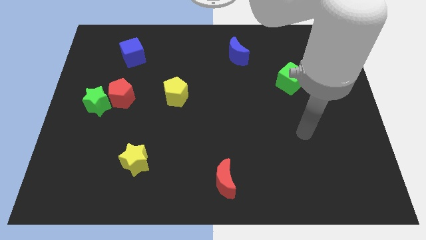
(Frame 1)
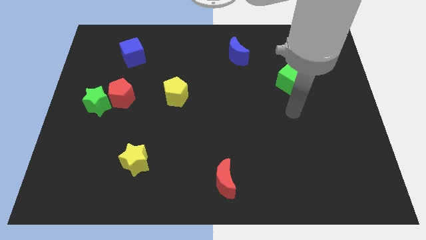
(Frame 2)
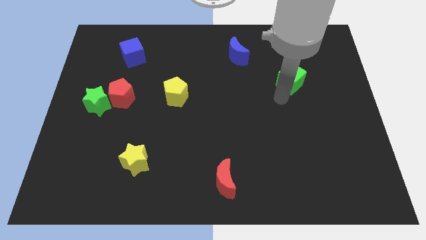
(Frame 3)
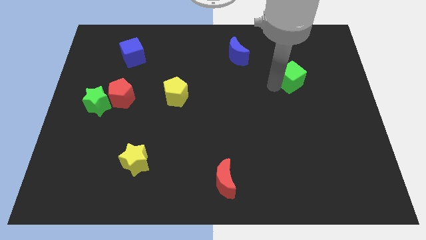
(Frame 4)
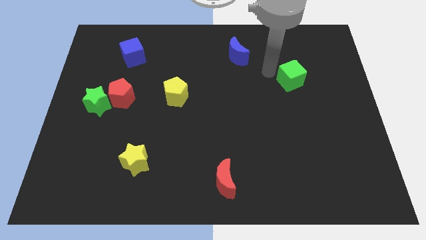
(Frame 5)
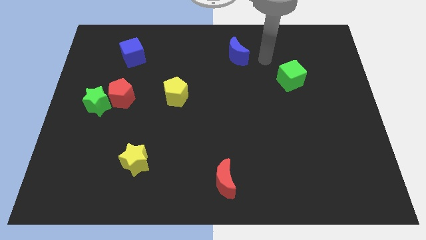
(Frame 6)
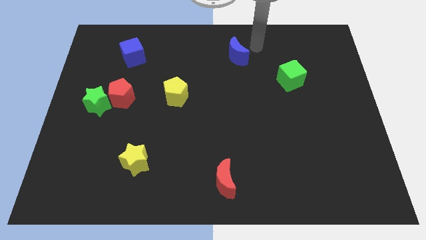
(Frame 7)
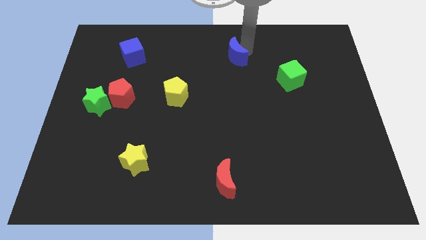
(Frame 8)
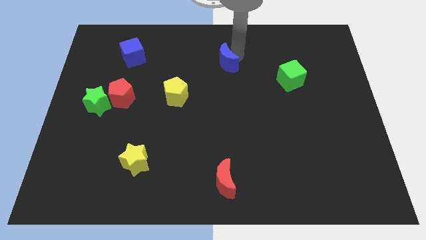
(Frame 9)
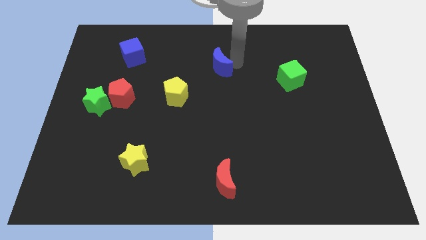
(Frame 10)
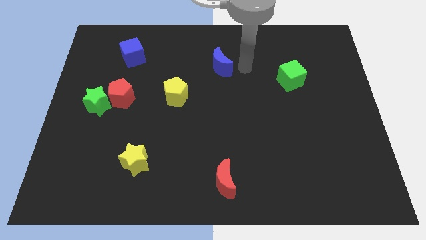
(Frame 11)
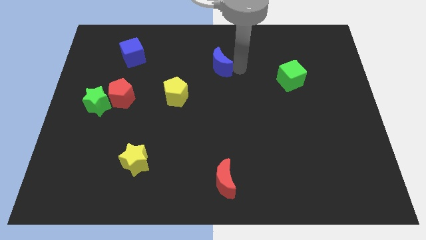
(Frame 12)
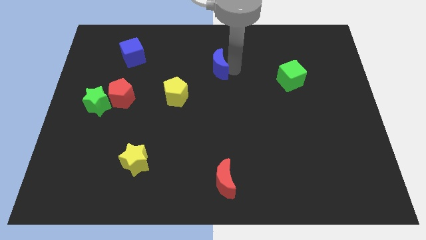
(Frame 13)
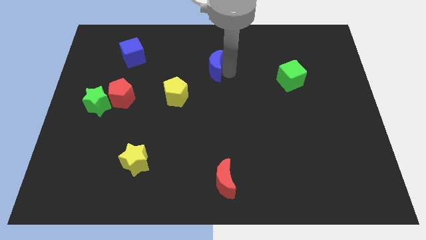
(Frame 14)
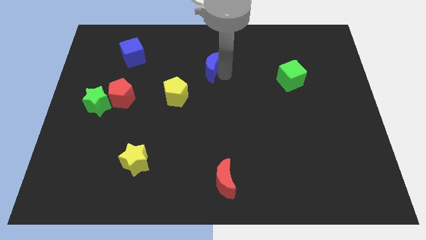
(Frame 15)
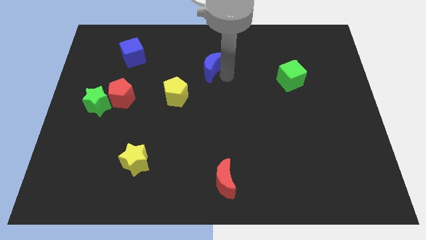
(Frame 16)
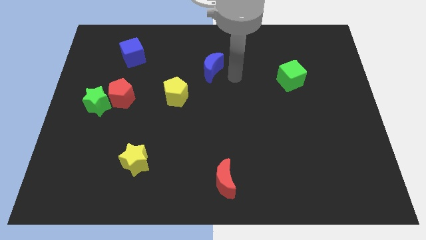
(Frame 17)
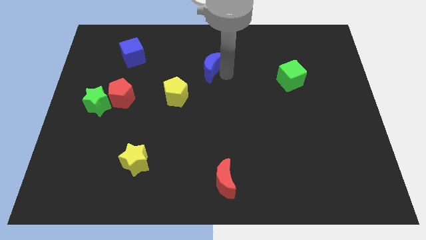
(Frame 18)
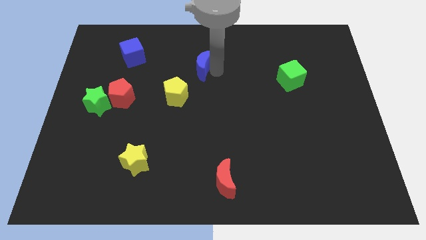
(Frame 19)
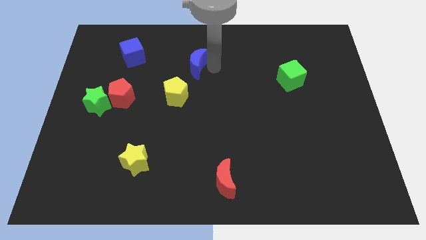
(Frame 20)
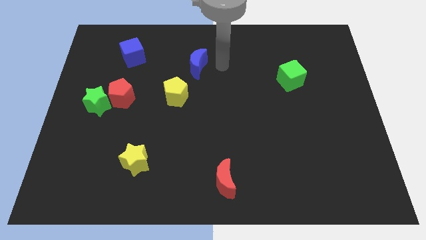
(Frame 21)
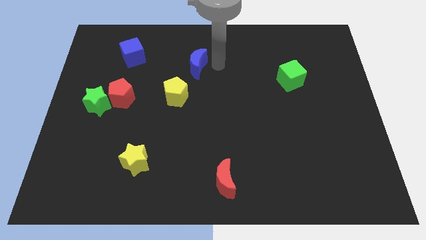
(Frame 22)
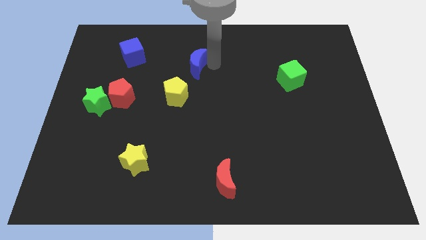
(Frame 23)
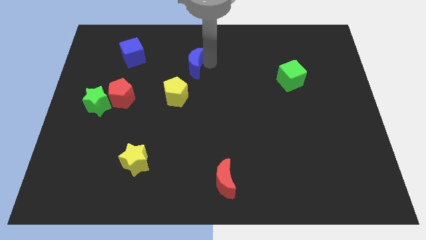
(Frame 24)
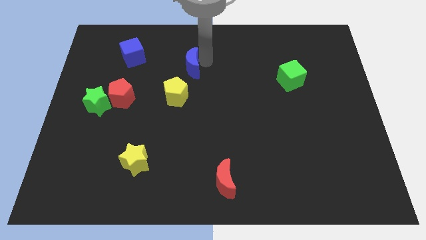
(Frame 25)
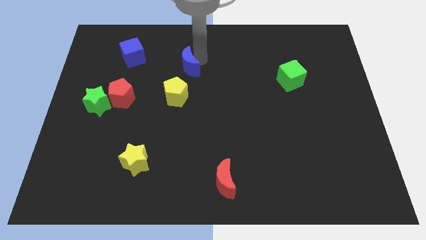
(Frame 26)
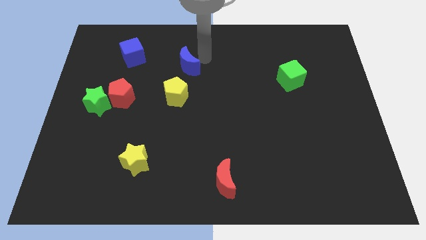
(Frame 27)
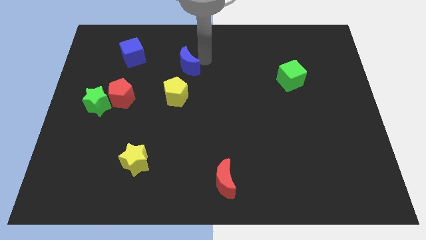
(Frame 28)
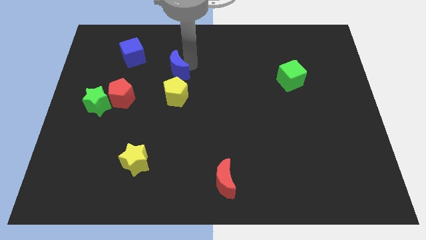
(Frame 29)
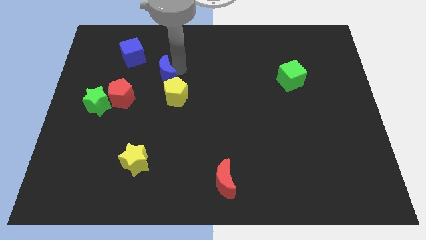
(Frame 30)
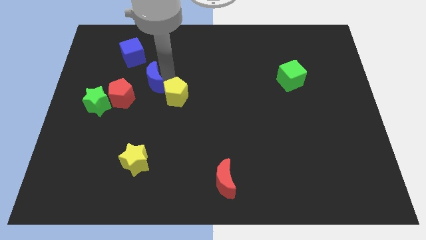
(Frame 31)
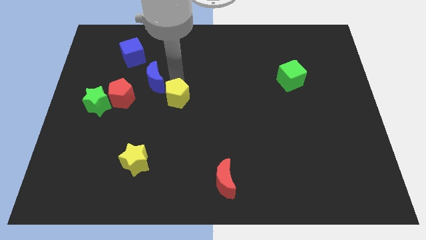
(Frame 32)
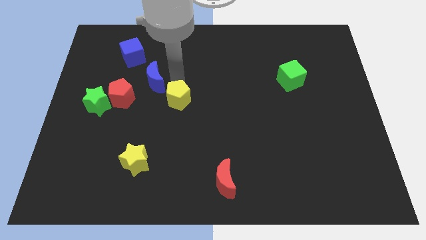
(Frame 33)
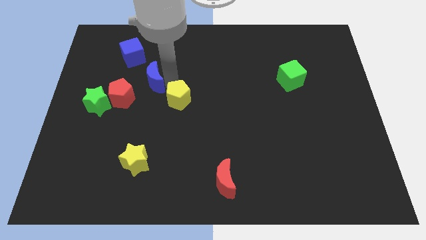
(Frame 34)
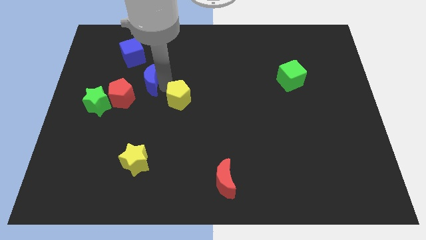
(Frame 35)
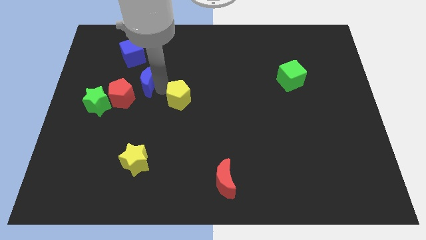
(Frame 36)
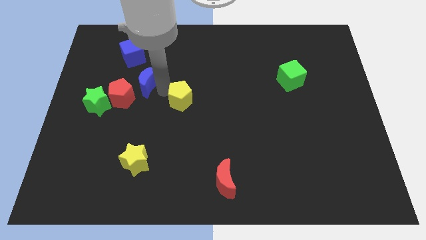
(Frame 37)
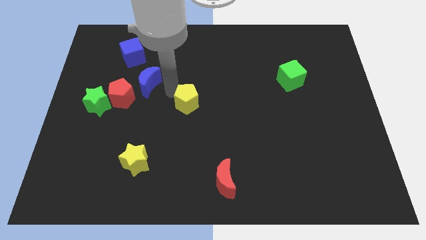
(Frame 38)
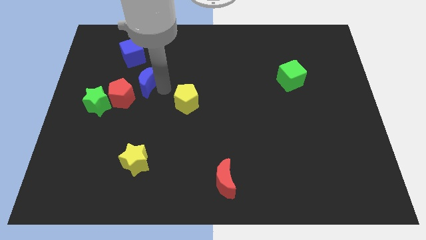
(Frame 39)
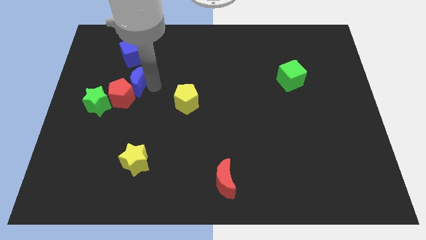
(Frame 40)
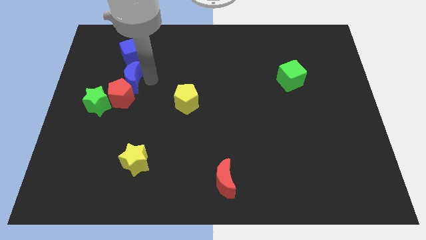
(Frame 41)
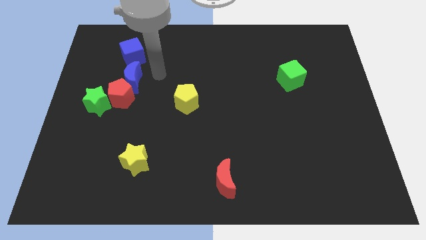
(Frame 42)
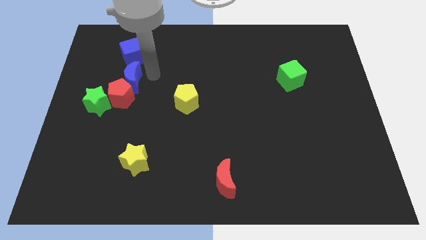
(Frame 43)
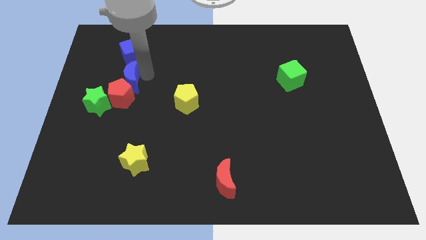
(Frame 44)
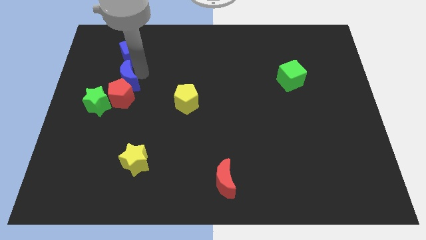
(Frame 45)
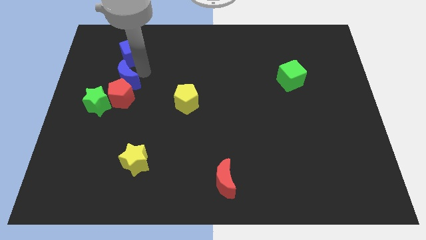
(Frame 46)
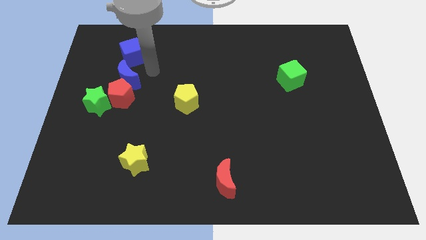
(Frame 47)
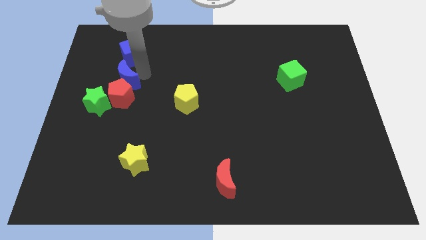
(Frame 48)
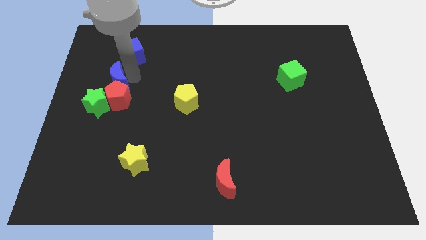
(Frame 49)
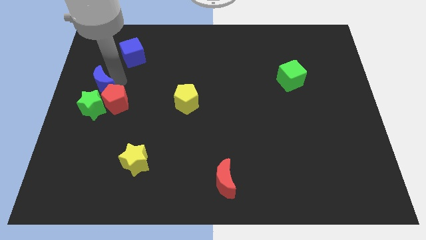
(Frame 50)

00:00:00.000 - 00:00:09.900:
move the blue moon to the center left

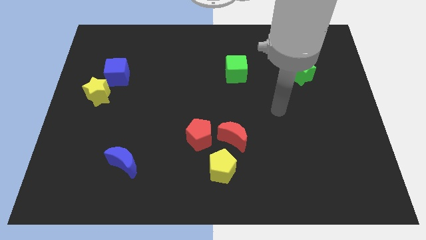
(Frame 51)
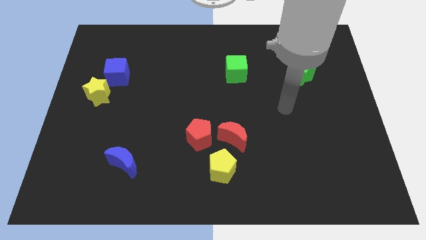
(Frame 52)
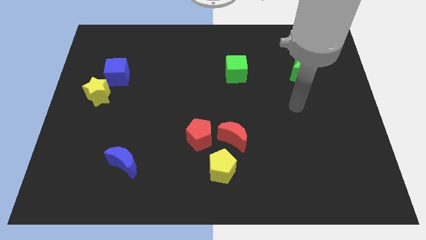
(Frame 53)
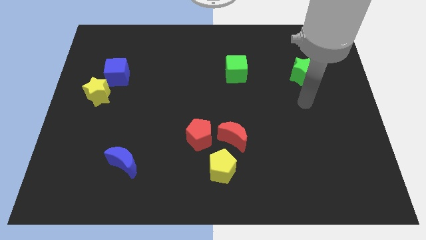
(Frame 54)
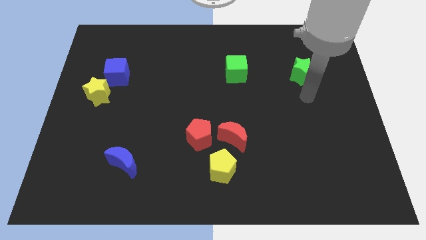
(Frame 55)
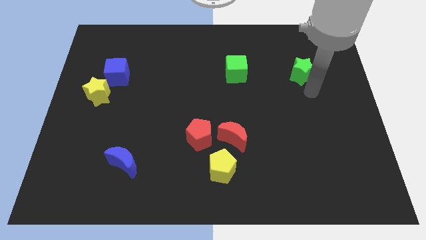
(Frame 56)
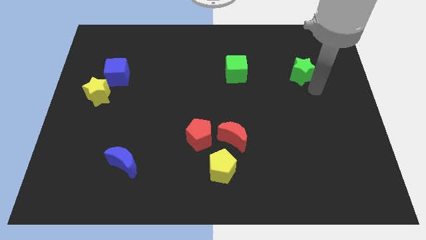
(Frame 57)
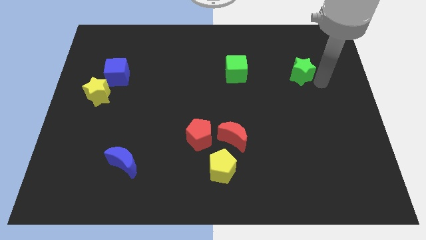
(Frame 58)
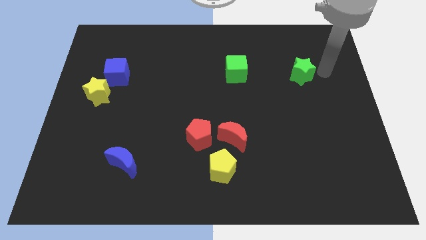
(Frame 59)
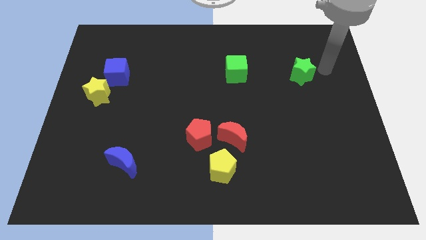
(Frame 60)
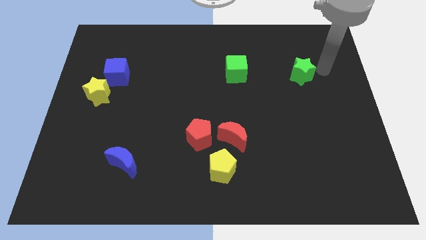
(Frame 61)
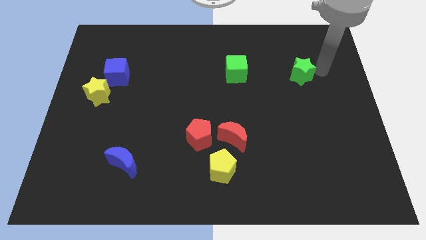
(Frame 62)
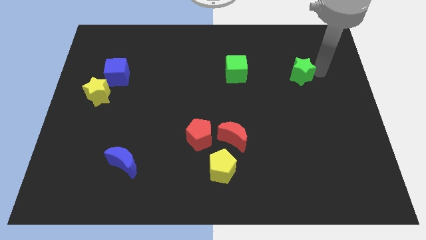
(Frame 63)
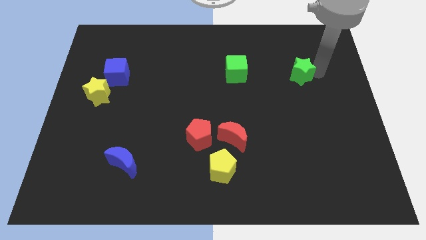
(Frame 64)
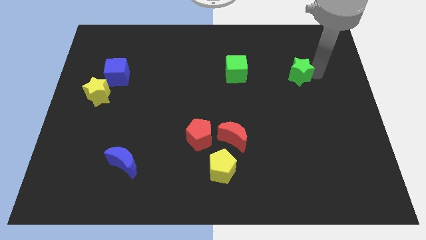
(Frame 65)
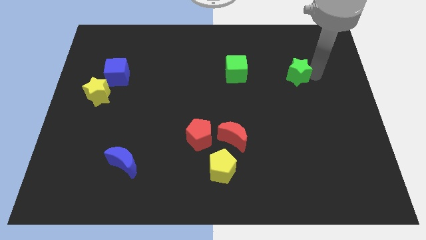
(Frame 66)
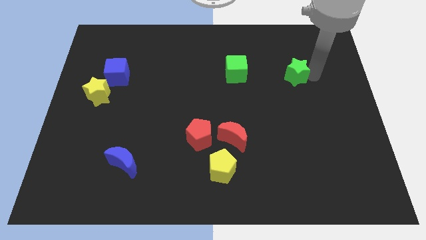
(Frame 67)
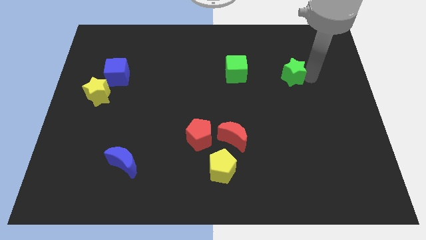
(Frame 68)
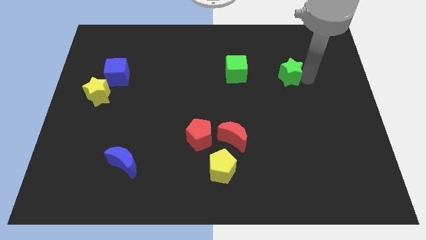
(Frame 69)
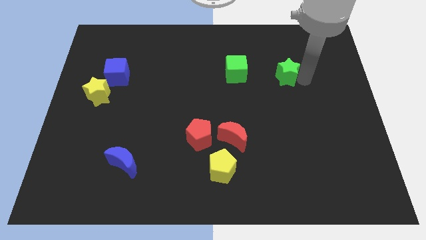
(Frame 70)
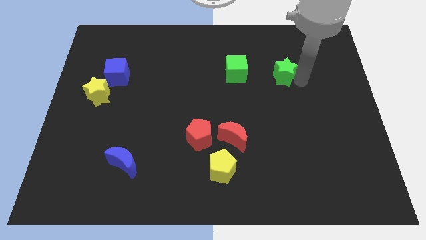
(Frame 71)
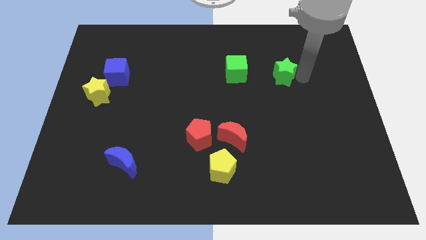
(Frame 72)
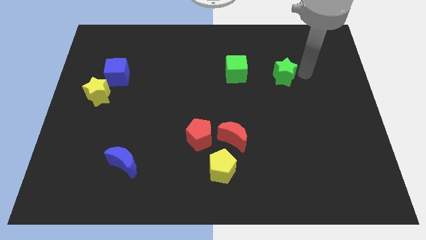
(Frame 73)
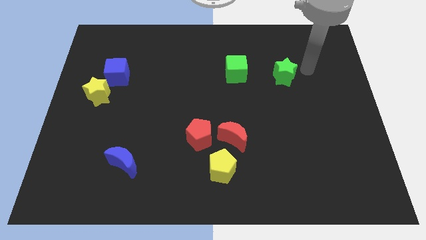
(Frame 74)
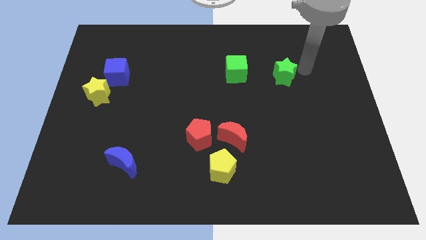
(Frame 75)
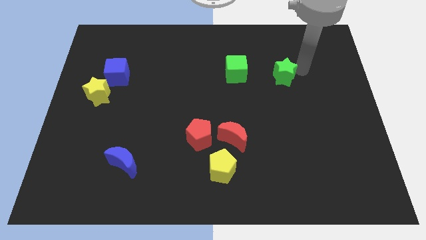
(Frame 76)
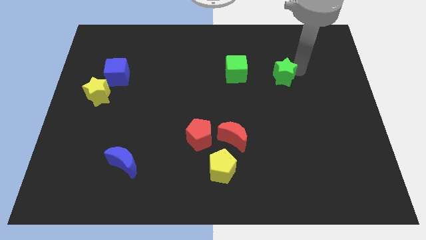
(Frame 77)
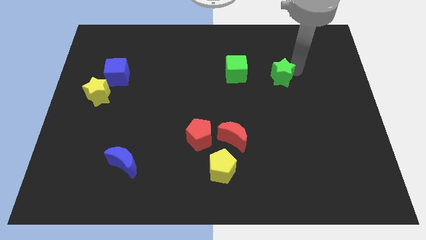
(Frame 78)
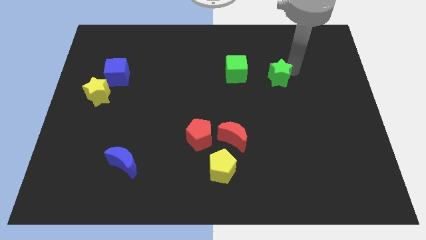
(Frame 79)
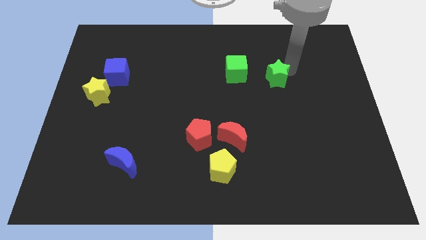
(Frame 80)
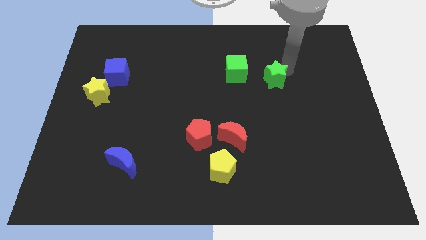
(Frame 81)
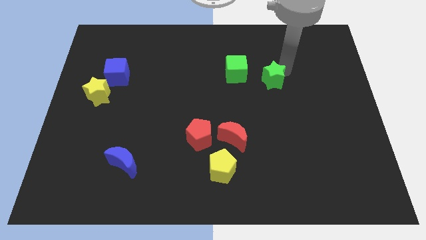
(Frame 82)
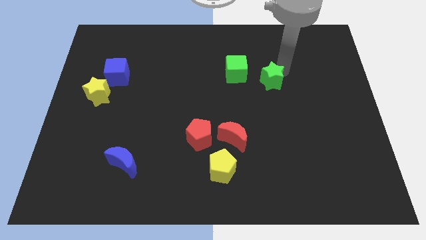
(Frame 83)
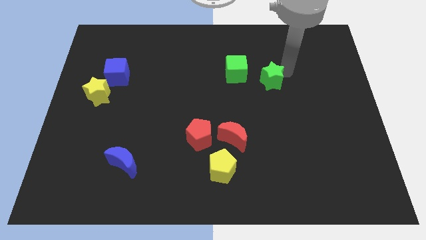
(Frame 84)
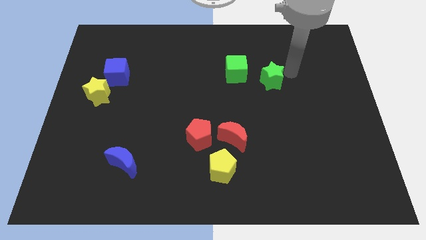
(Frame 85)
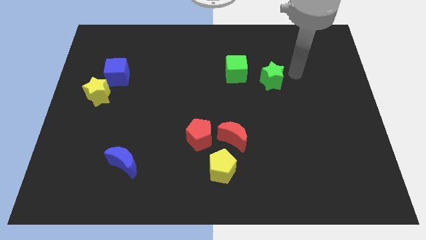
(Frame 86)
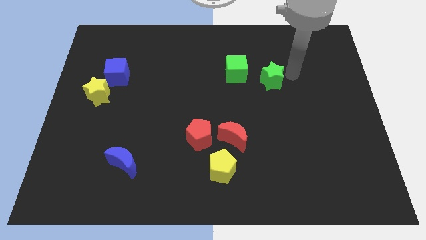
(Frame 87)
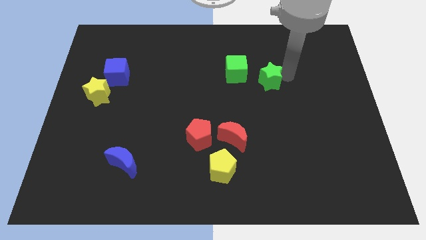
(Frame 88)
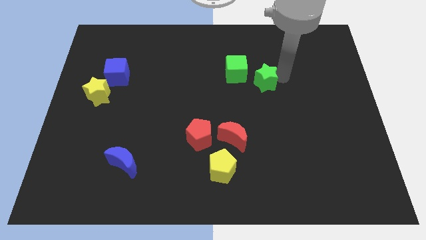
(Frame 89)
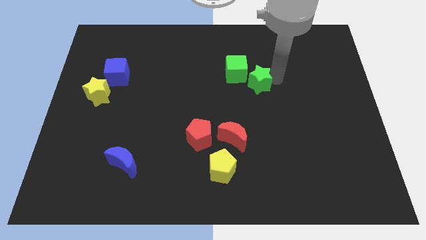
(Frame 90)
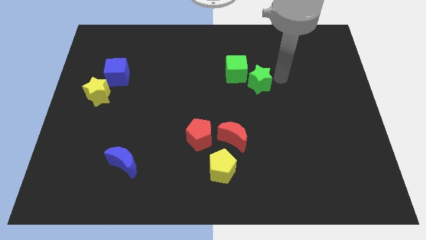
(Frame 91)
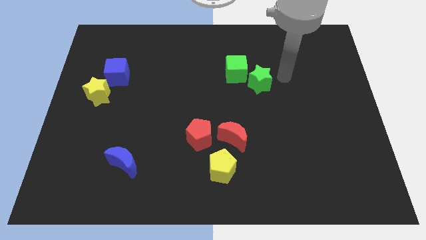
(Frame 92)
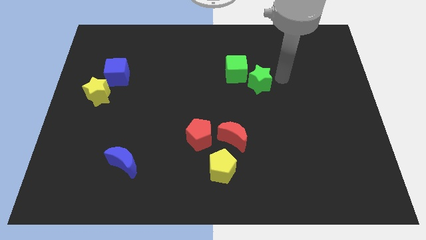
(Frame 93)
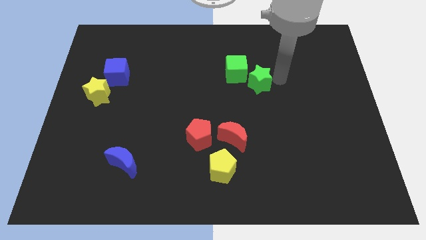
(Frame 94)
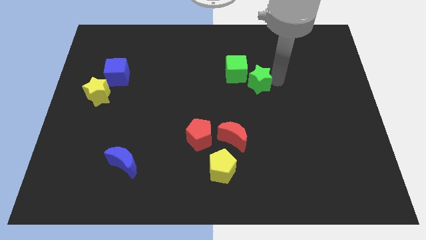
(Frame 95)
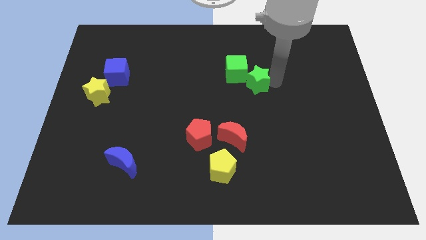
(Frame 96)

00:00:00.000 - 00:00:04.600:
slide the green star to the center
